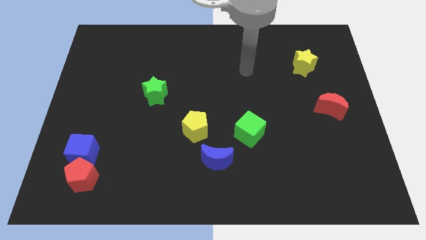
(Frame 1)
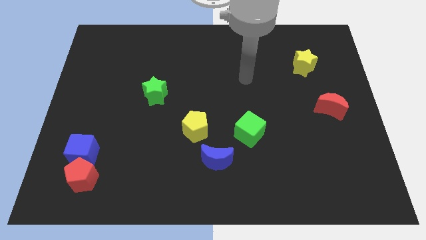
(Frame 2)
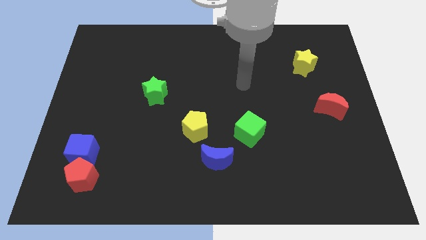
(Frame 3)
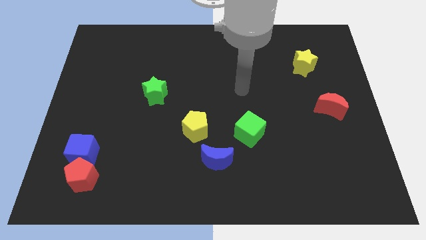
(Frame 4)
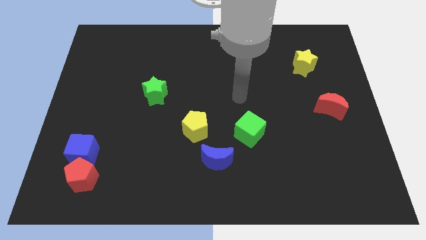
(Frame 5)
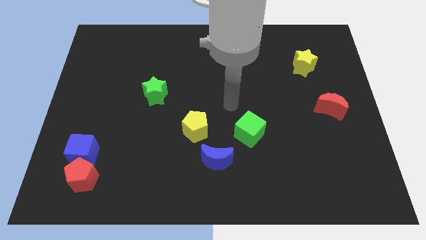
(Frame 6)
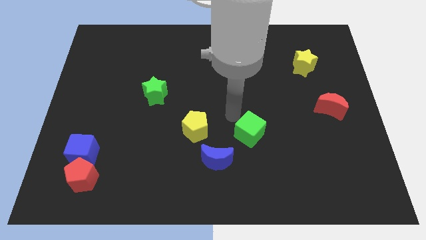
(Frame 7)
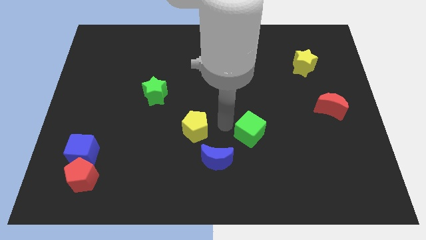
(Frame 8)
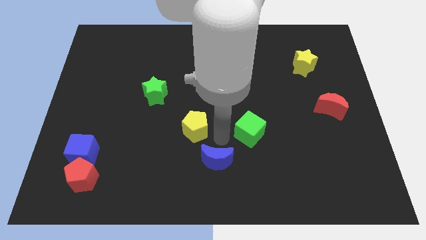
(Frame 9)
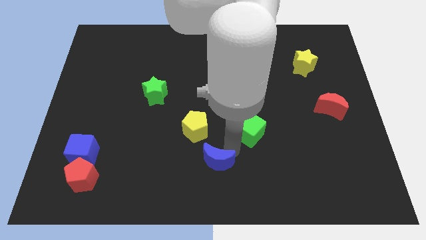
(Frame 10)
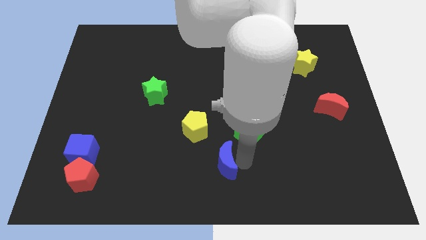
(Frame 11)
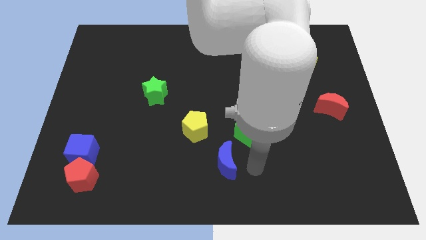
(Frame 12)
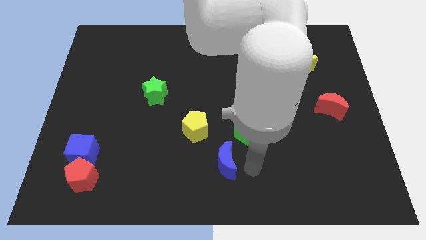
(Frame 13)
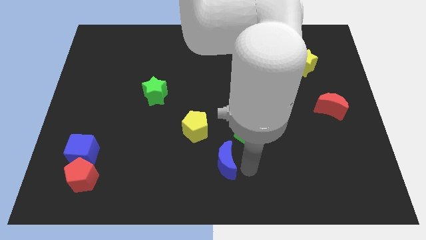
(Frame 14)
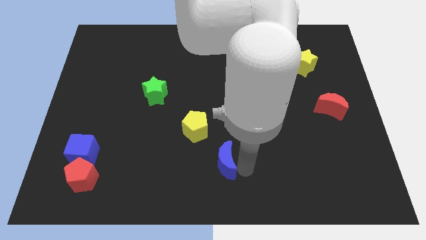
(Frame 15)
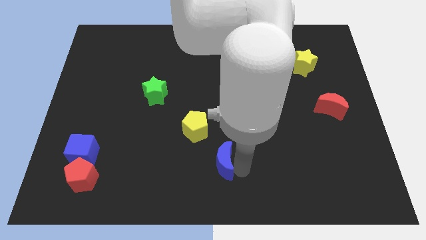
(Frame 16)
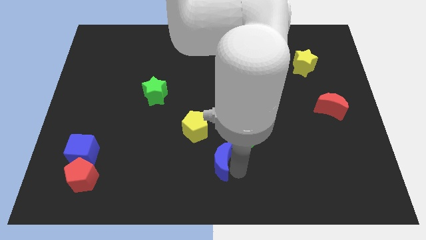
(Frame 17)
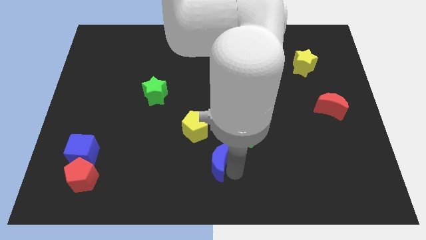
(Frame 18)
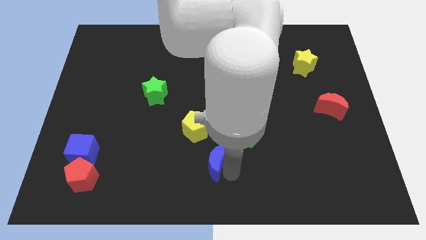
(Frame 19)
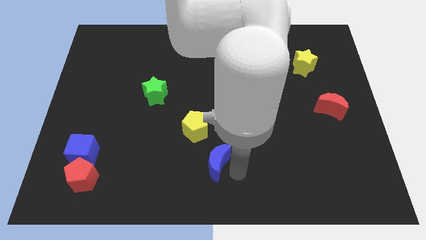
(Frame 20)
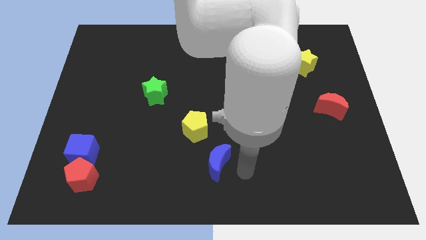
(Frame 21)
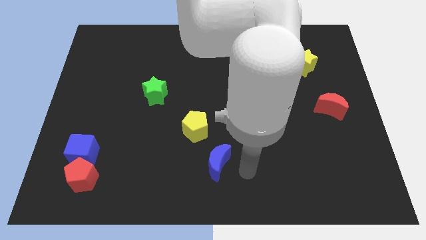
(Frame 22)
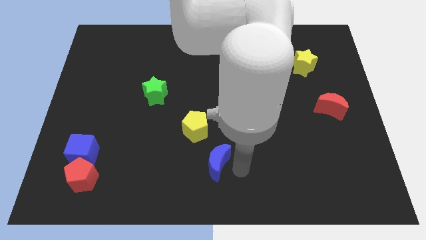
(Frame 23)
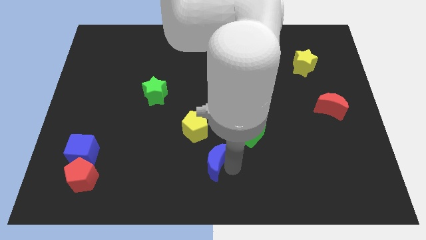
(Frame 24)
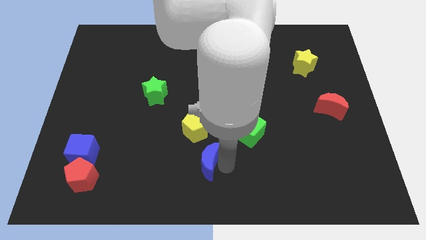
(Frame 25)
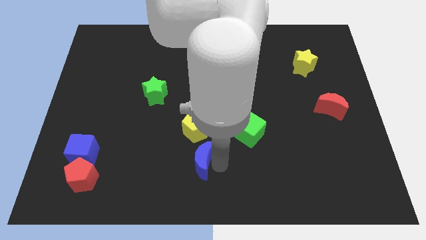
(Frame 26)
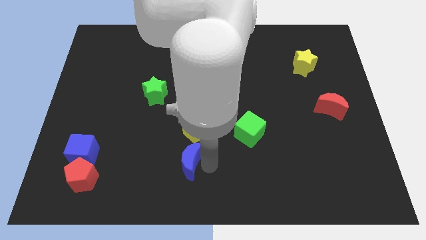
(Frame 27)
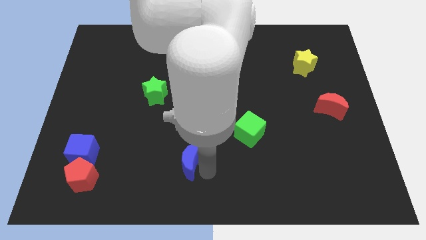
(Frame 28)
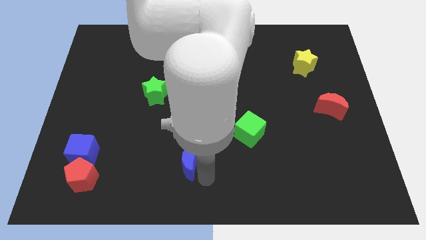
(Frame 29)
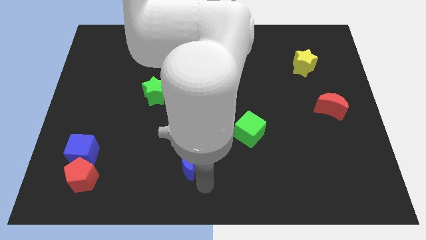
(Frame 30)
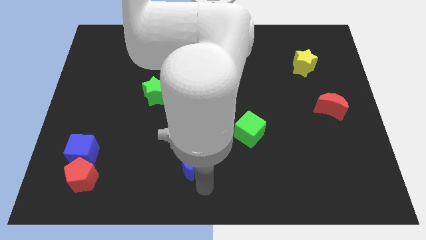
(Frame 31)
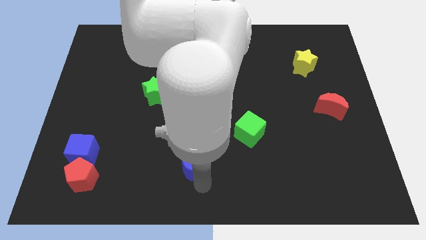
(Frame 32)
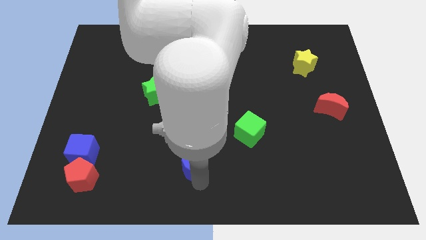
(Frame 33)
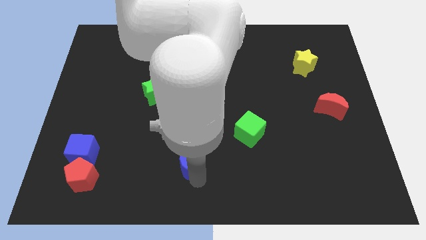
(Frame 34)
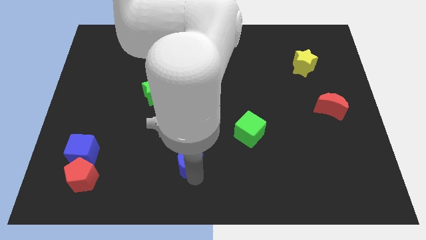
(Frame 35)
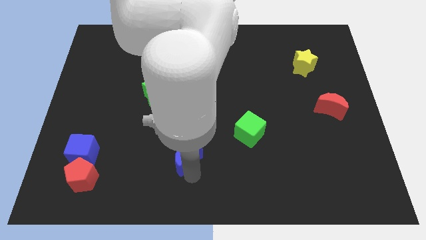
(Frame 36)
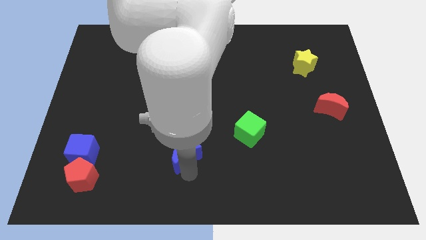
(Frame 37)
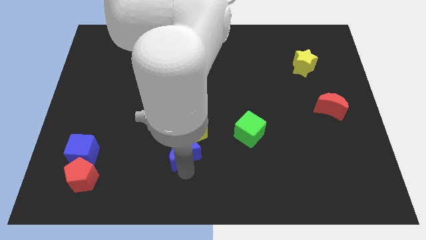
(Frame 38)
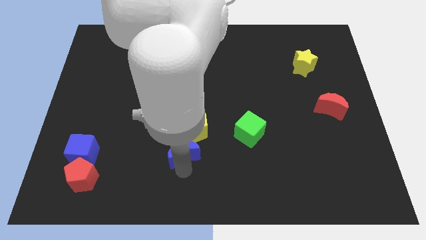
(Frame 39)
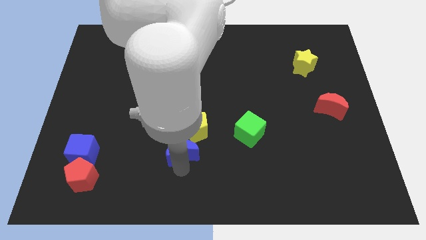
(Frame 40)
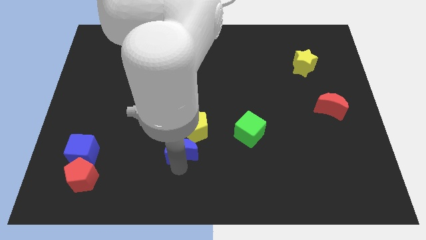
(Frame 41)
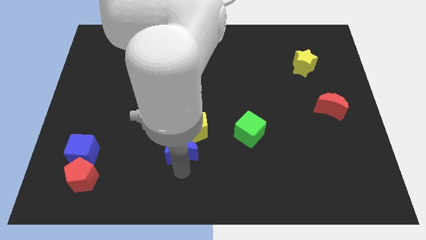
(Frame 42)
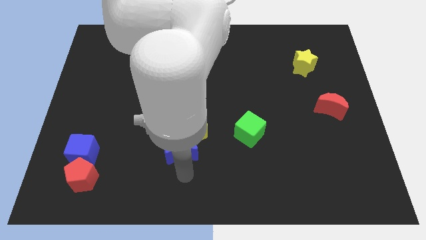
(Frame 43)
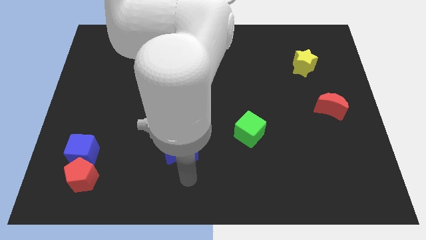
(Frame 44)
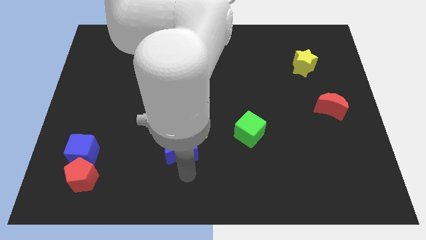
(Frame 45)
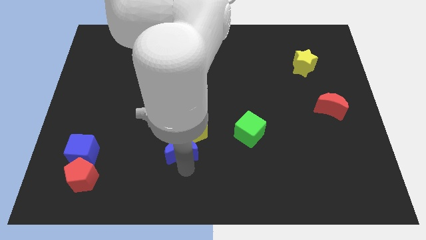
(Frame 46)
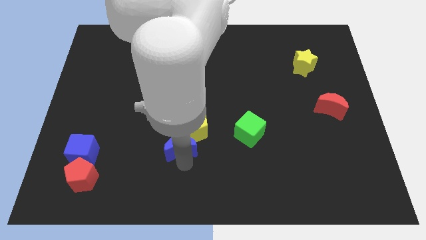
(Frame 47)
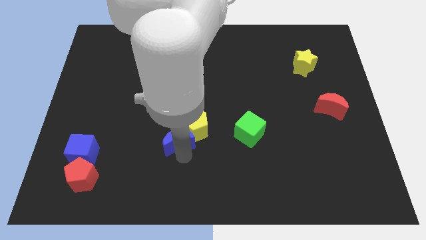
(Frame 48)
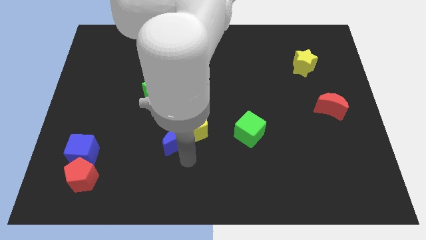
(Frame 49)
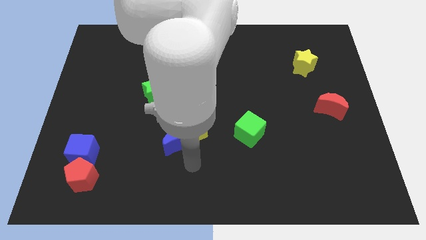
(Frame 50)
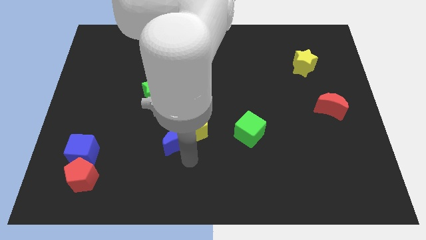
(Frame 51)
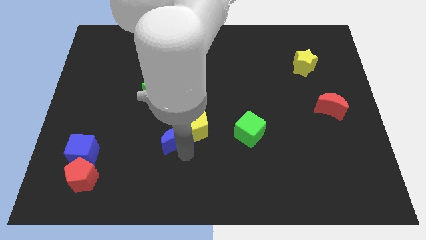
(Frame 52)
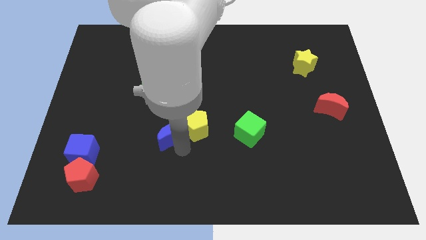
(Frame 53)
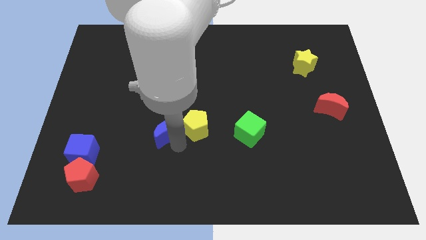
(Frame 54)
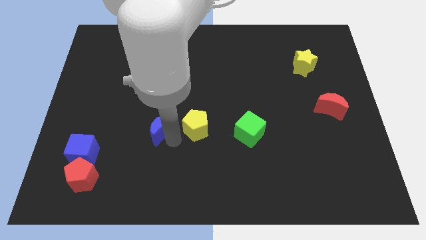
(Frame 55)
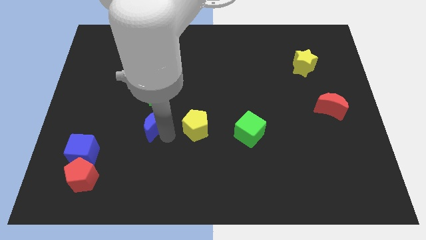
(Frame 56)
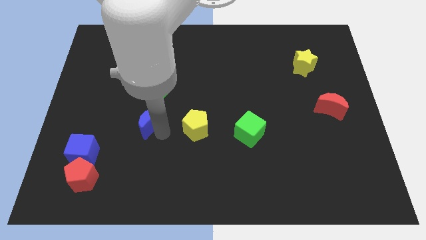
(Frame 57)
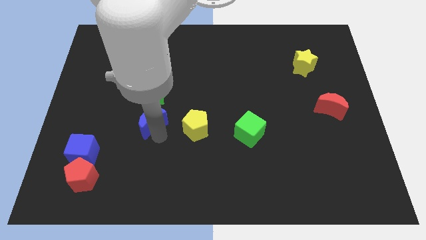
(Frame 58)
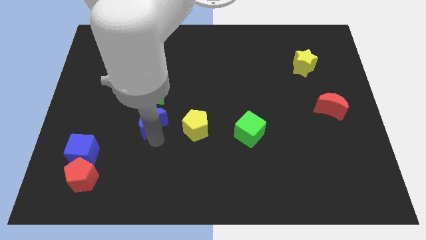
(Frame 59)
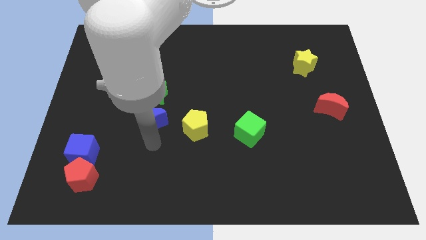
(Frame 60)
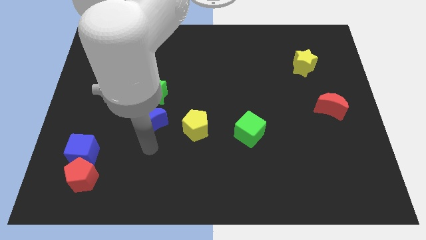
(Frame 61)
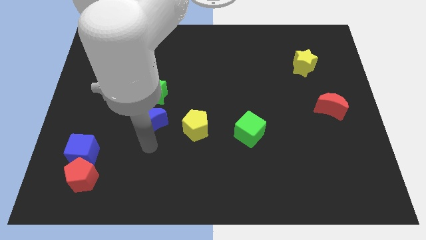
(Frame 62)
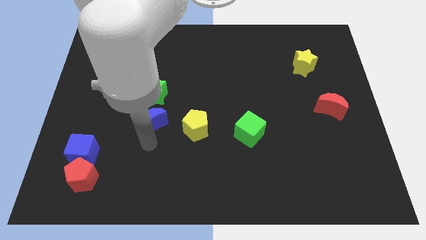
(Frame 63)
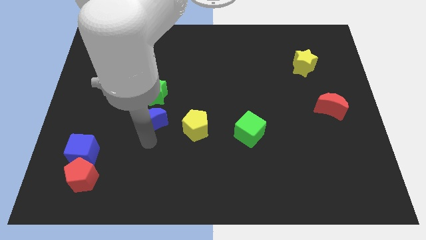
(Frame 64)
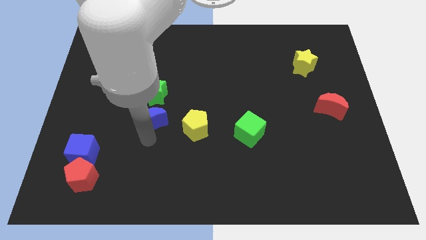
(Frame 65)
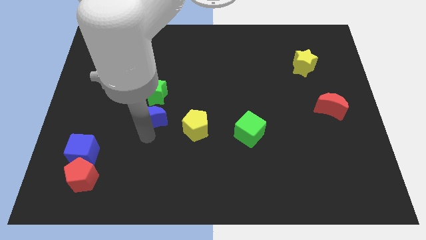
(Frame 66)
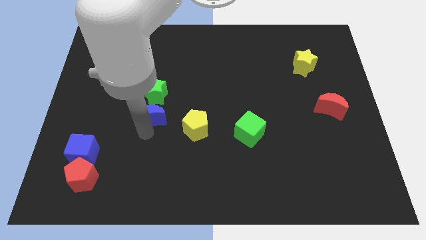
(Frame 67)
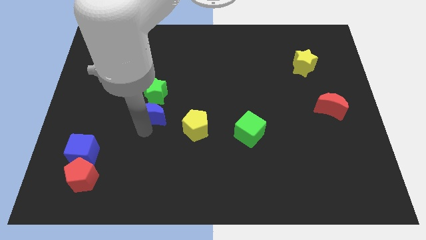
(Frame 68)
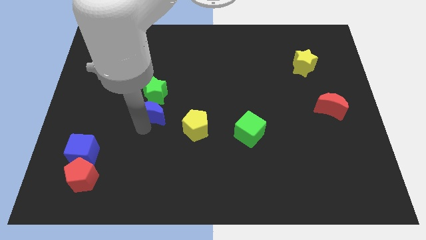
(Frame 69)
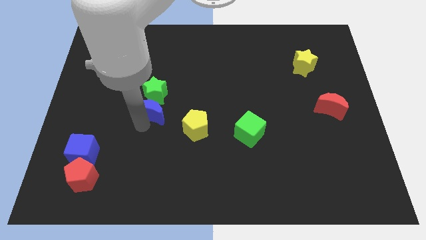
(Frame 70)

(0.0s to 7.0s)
push the blue moon next to the green star
